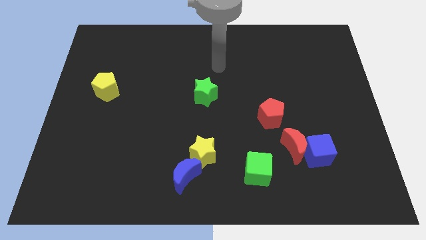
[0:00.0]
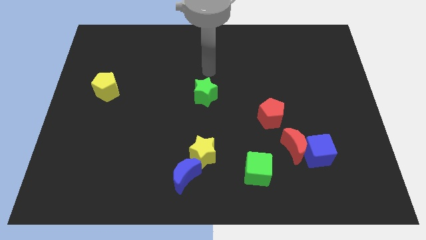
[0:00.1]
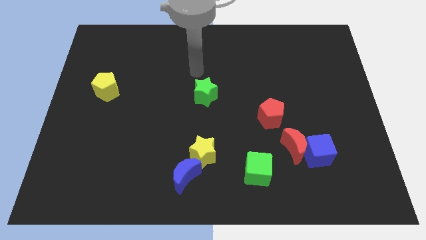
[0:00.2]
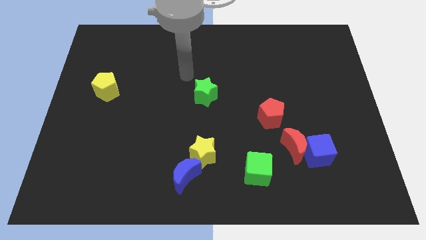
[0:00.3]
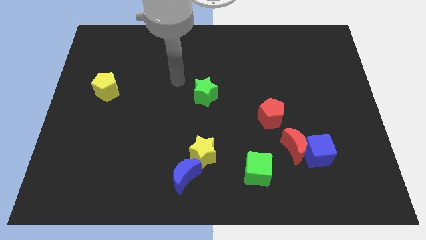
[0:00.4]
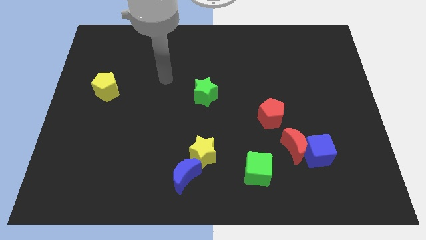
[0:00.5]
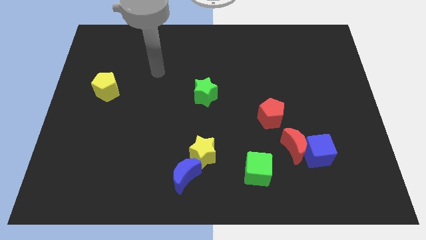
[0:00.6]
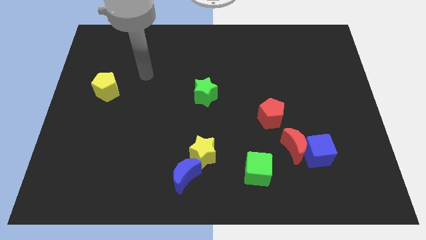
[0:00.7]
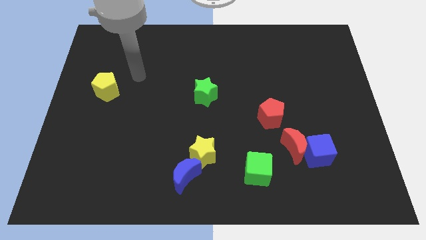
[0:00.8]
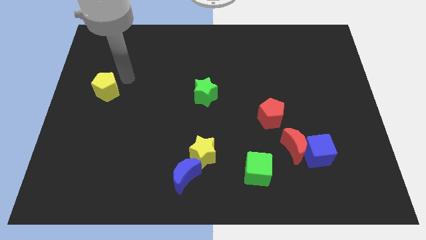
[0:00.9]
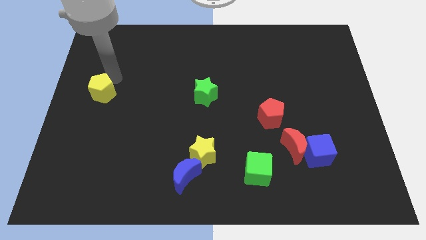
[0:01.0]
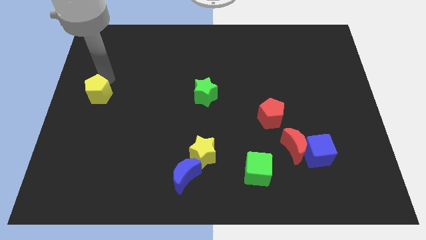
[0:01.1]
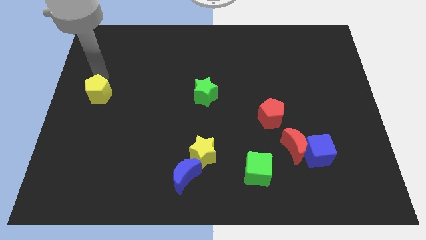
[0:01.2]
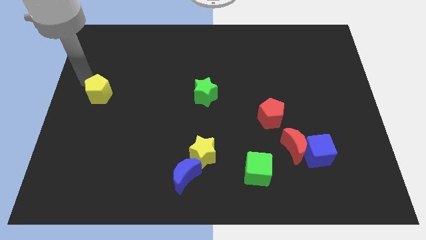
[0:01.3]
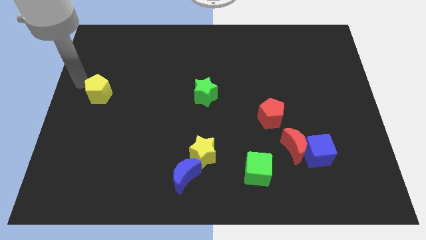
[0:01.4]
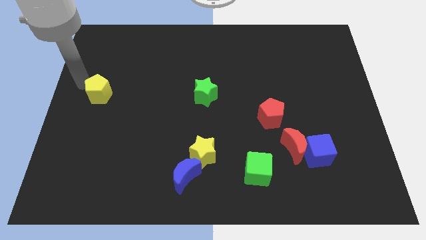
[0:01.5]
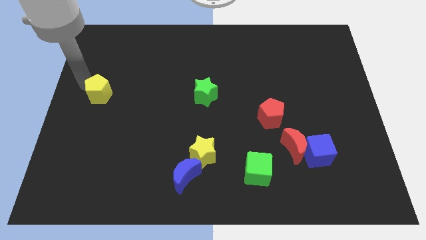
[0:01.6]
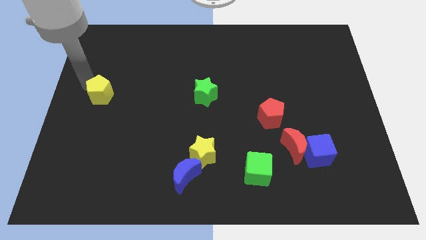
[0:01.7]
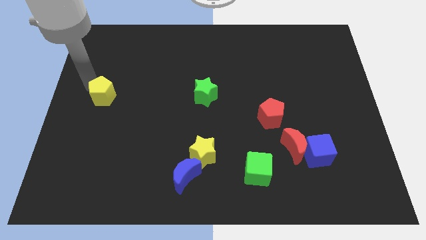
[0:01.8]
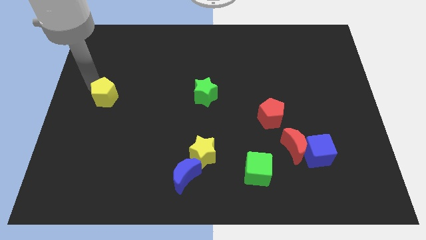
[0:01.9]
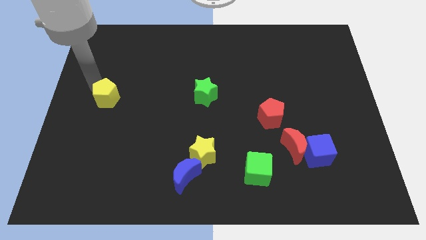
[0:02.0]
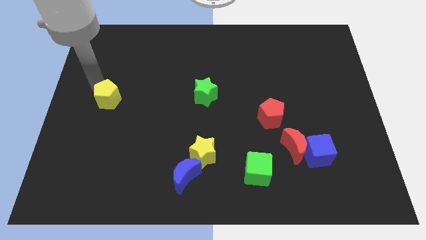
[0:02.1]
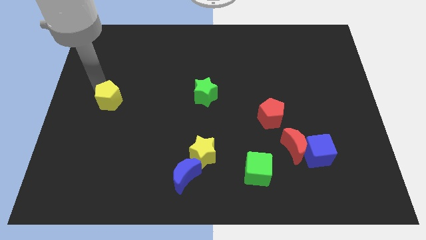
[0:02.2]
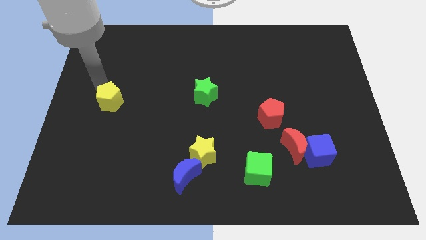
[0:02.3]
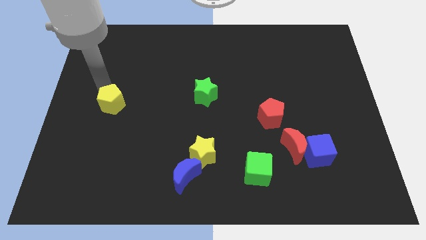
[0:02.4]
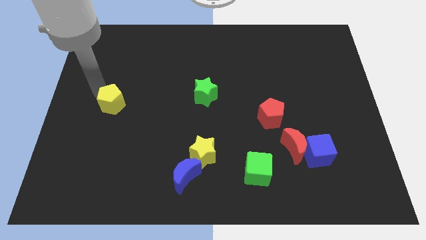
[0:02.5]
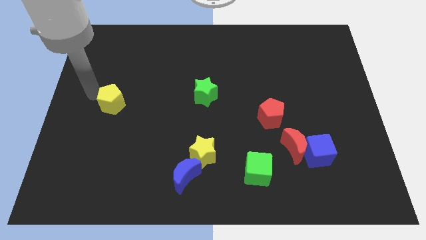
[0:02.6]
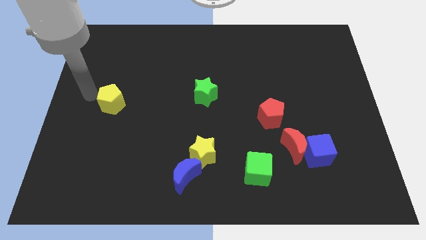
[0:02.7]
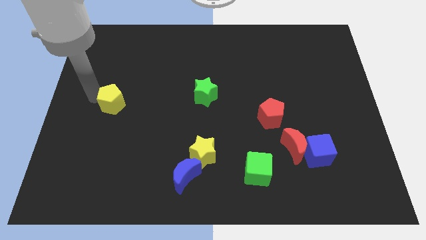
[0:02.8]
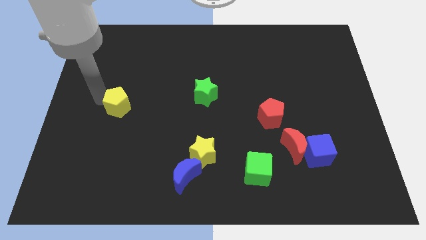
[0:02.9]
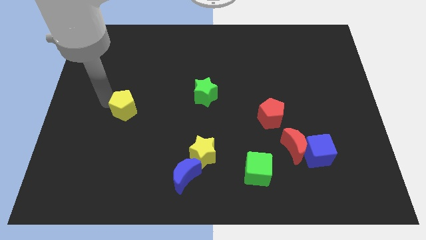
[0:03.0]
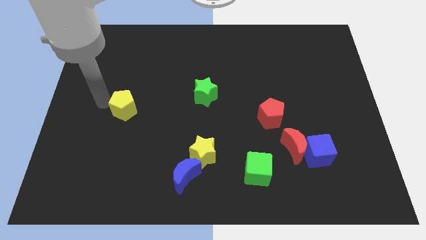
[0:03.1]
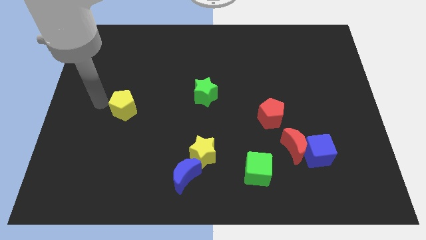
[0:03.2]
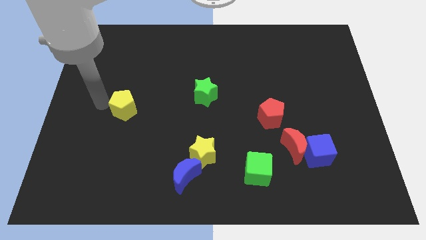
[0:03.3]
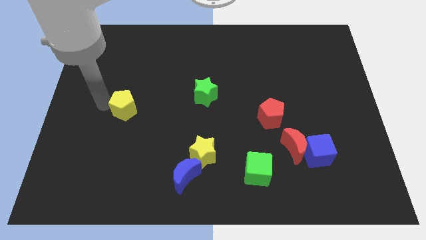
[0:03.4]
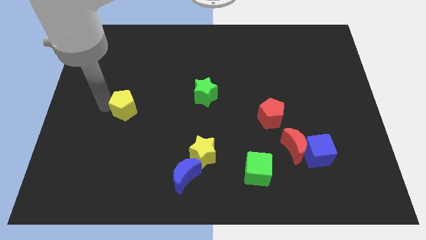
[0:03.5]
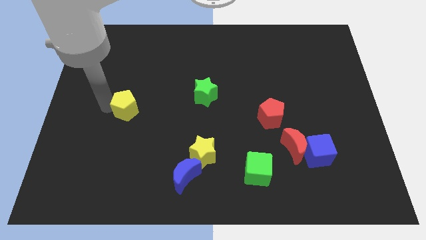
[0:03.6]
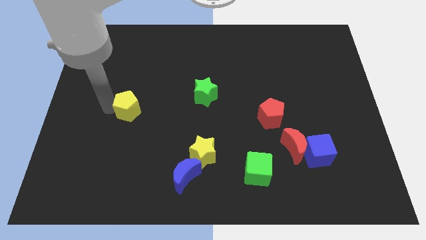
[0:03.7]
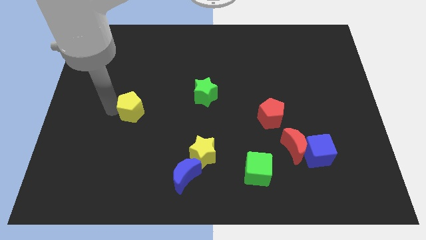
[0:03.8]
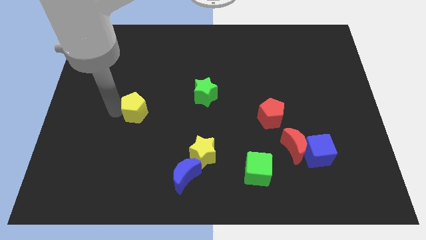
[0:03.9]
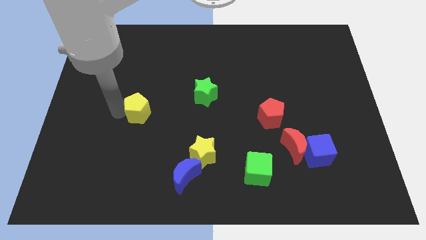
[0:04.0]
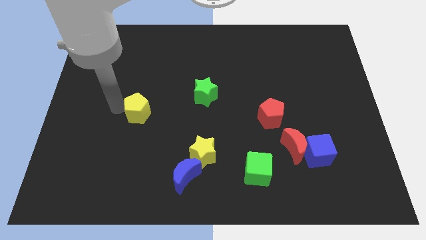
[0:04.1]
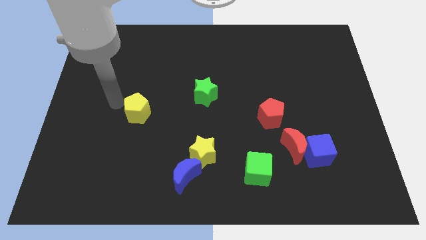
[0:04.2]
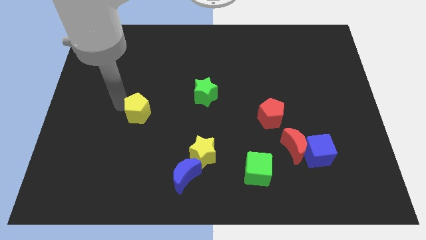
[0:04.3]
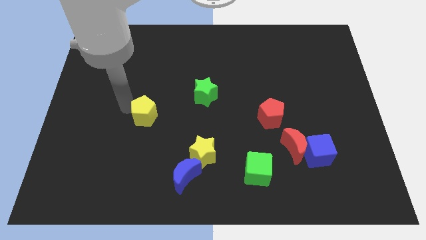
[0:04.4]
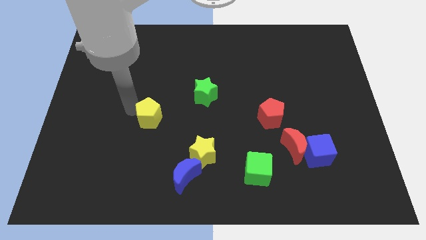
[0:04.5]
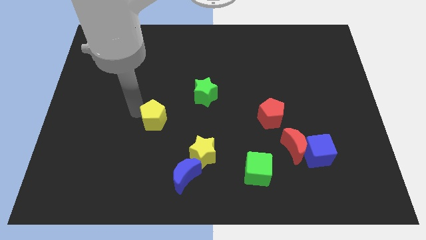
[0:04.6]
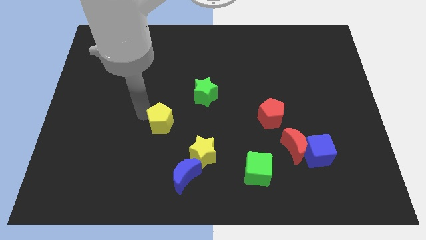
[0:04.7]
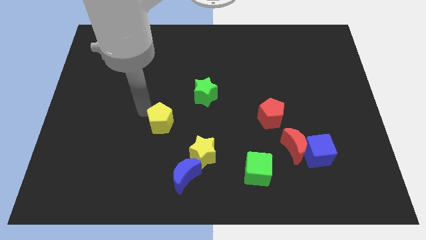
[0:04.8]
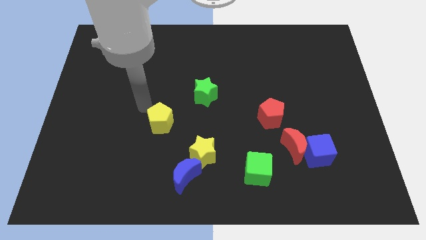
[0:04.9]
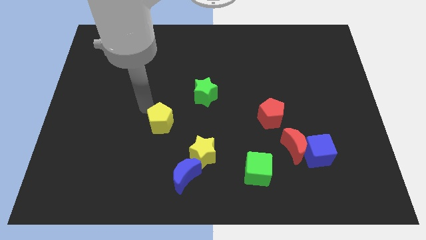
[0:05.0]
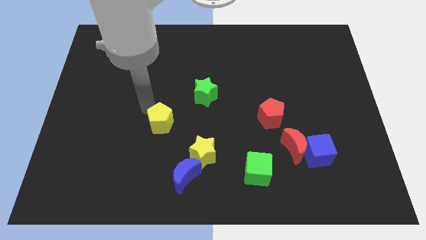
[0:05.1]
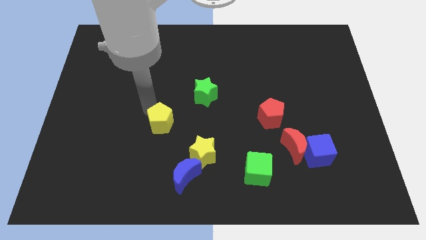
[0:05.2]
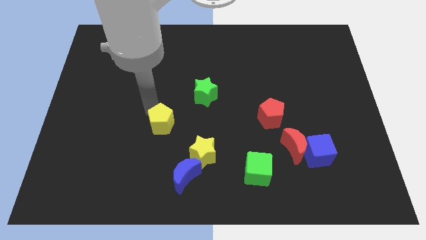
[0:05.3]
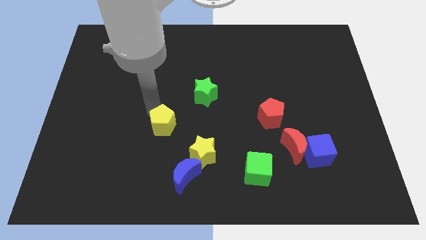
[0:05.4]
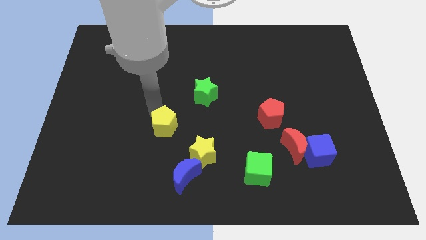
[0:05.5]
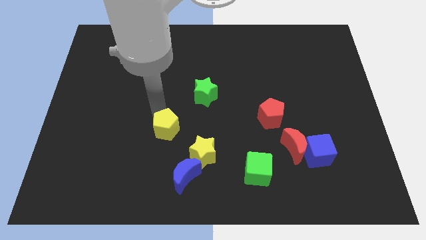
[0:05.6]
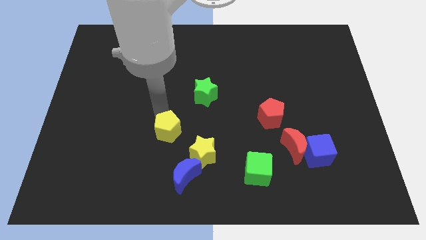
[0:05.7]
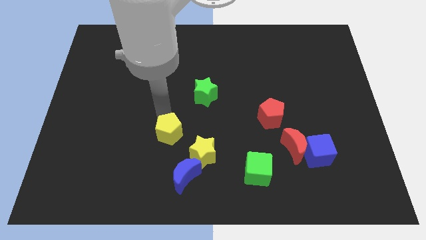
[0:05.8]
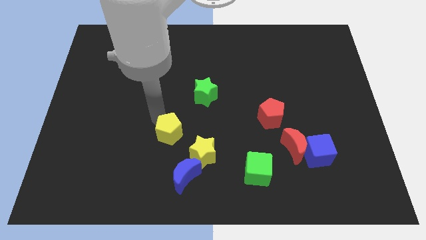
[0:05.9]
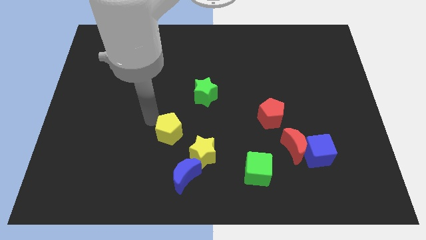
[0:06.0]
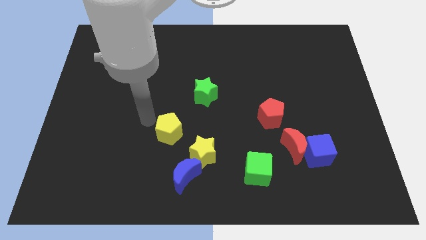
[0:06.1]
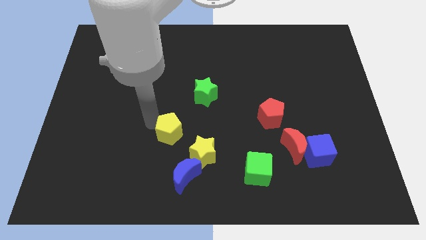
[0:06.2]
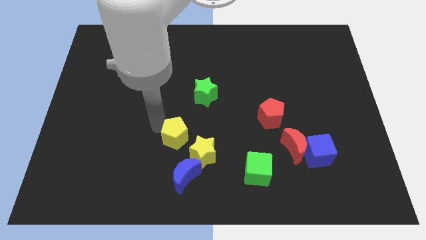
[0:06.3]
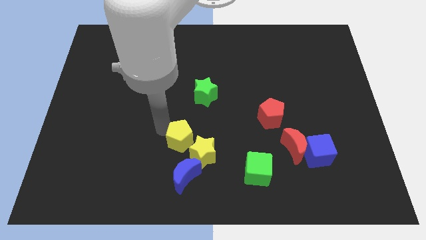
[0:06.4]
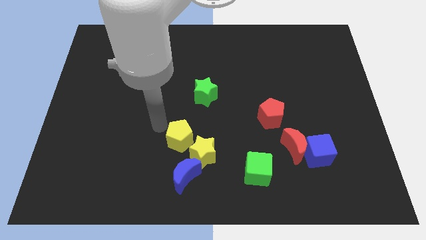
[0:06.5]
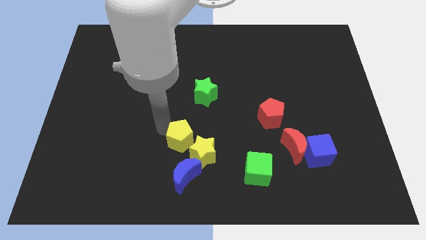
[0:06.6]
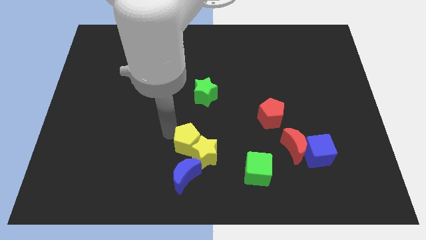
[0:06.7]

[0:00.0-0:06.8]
push the yellow pentagon close to the yellow star
